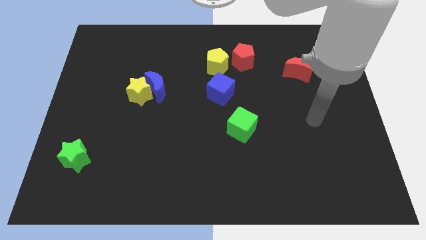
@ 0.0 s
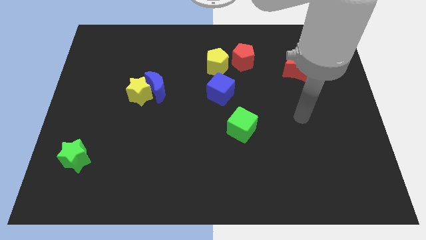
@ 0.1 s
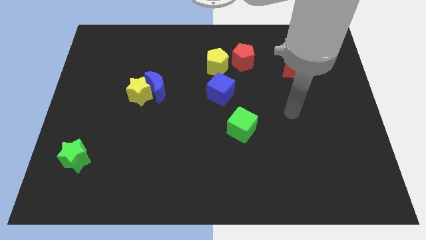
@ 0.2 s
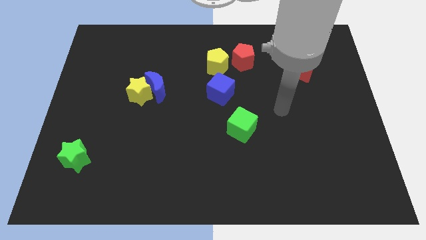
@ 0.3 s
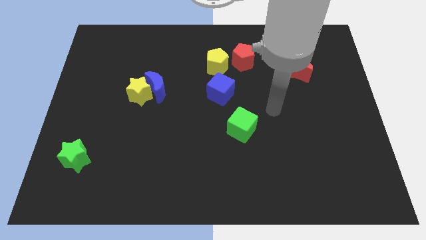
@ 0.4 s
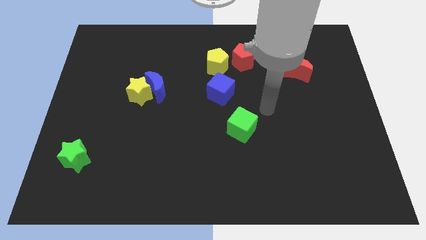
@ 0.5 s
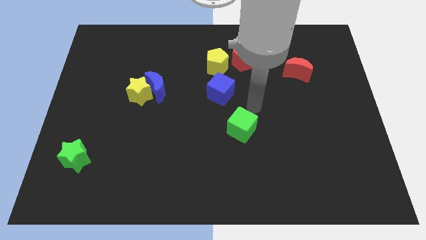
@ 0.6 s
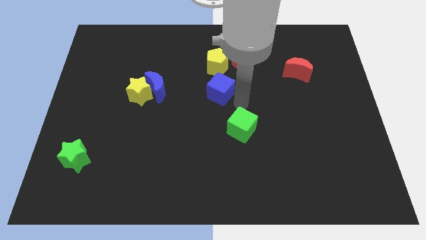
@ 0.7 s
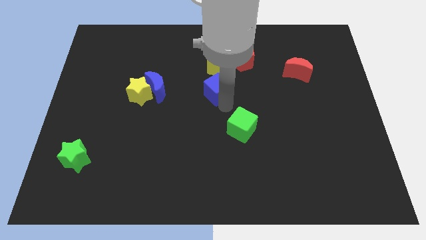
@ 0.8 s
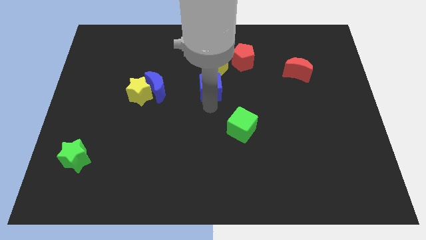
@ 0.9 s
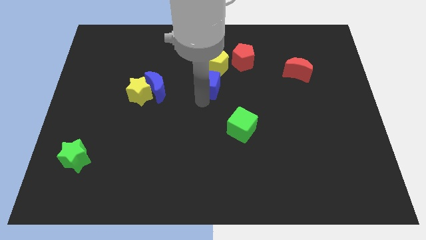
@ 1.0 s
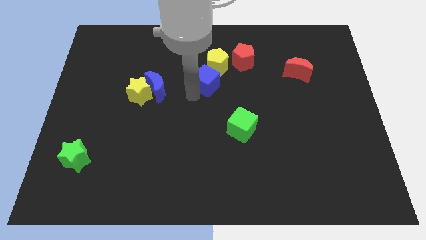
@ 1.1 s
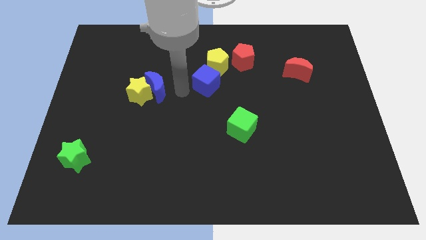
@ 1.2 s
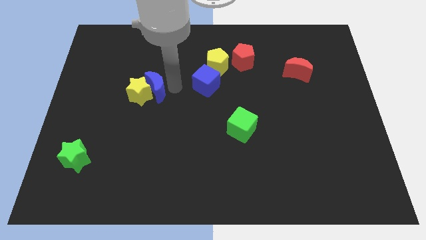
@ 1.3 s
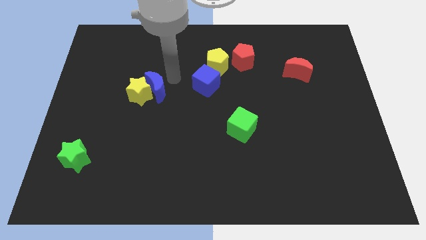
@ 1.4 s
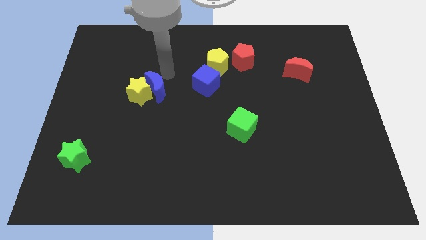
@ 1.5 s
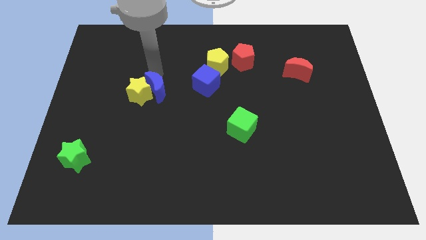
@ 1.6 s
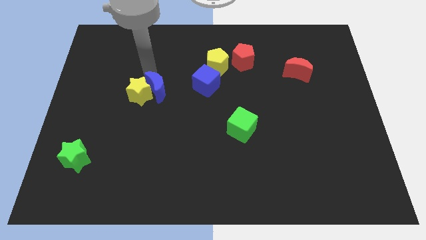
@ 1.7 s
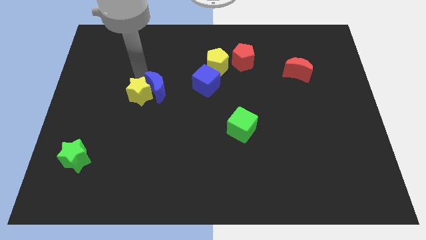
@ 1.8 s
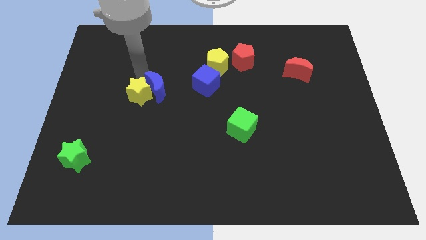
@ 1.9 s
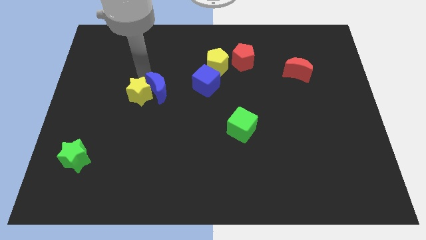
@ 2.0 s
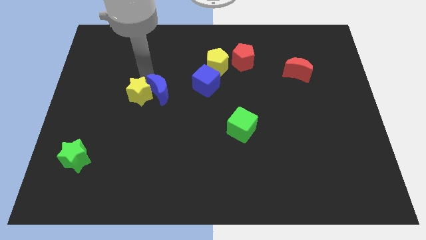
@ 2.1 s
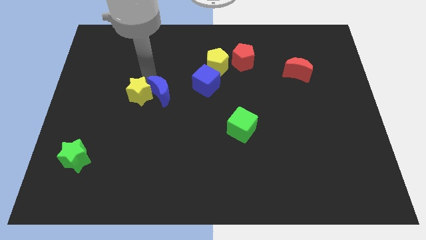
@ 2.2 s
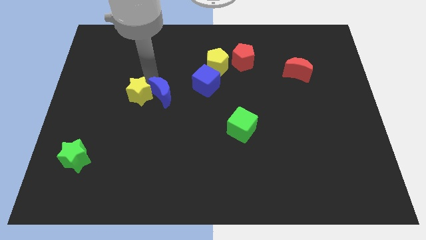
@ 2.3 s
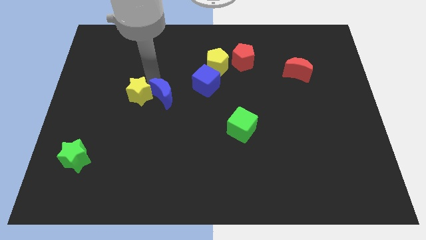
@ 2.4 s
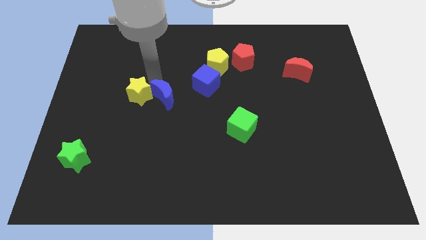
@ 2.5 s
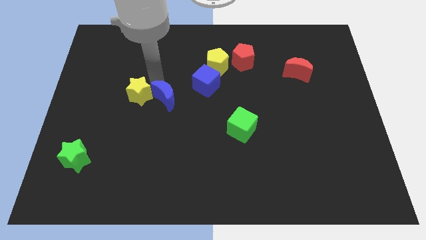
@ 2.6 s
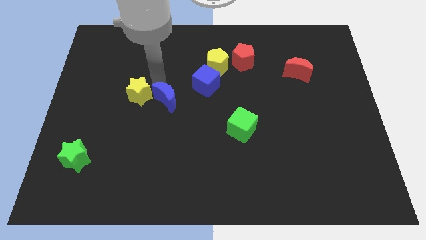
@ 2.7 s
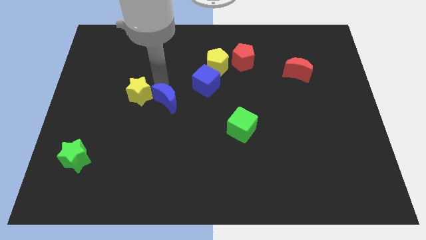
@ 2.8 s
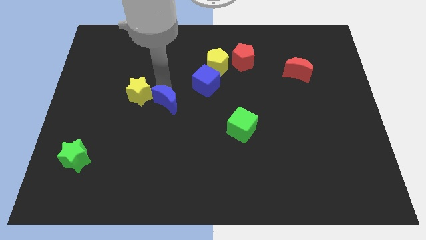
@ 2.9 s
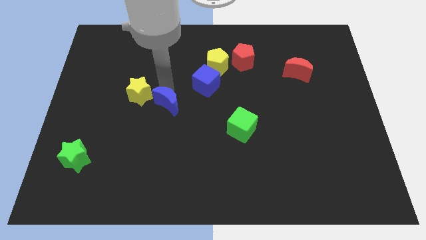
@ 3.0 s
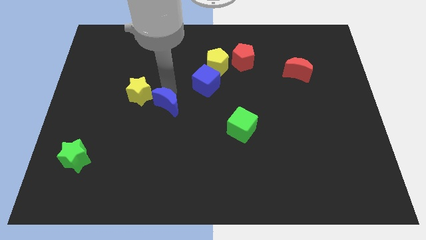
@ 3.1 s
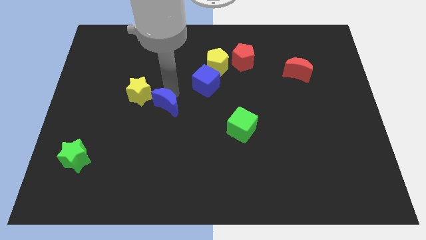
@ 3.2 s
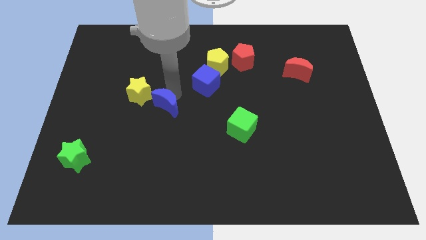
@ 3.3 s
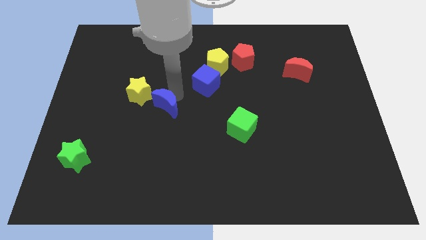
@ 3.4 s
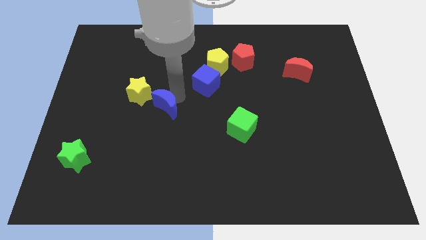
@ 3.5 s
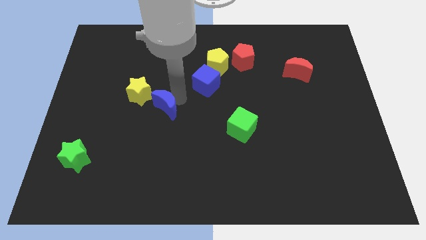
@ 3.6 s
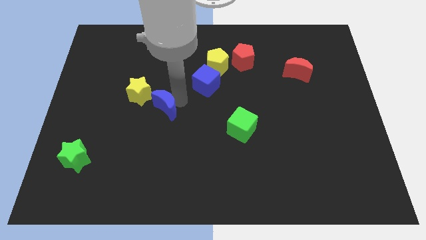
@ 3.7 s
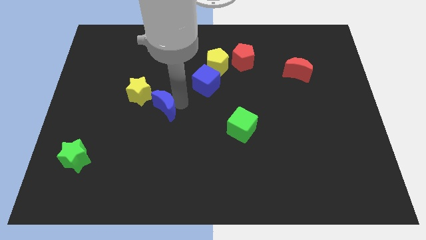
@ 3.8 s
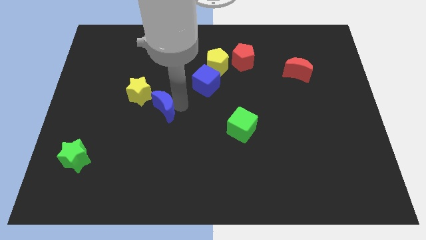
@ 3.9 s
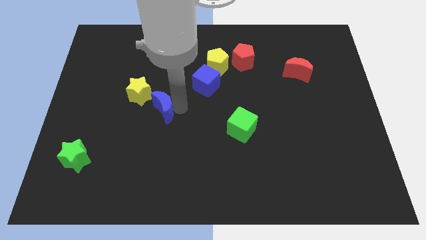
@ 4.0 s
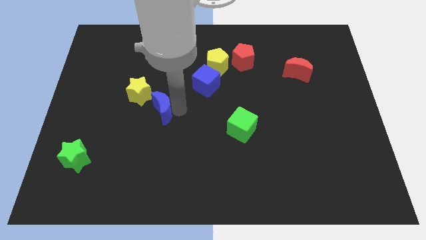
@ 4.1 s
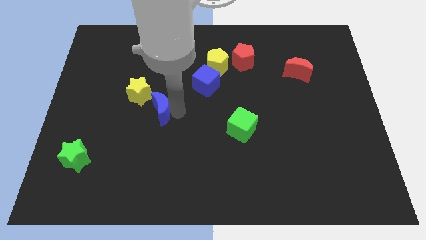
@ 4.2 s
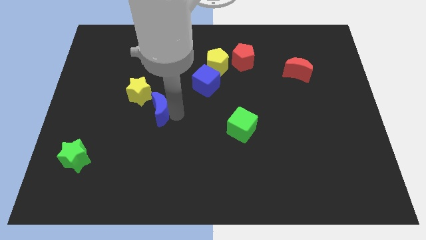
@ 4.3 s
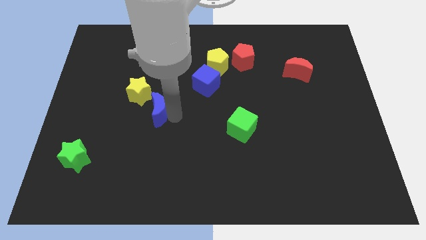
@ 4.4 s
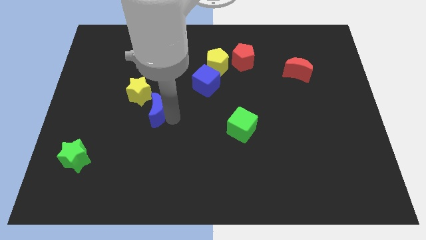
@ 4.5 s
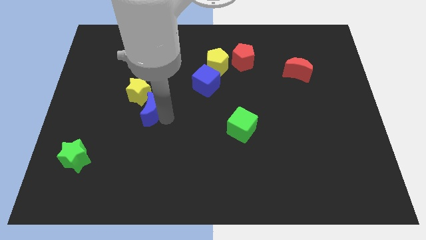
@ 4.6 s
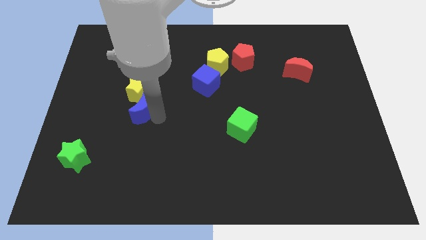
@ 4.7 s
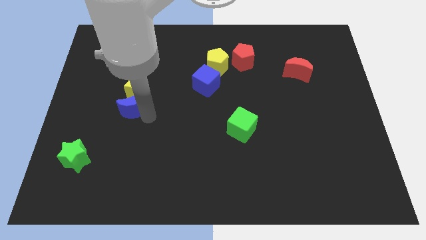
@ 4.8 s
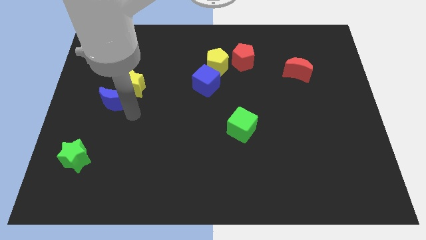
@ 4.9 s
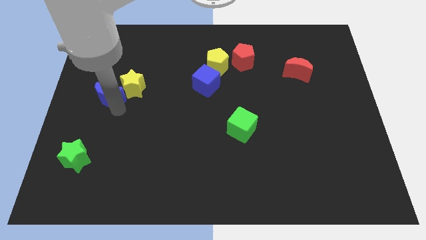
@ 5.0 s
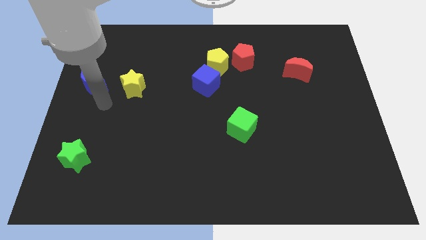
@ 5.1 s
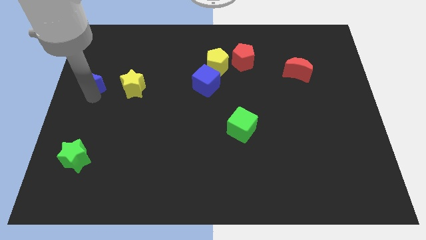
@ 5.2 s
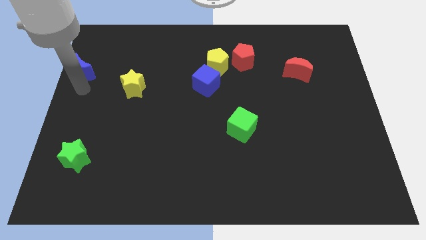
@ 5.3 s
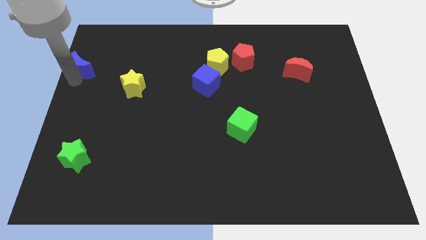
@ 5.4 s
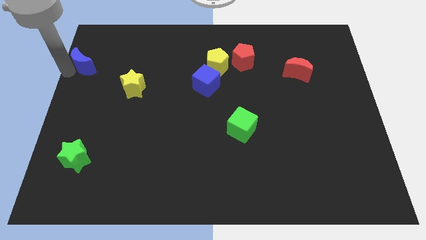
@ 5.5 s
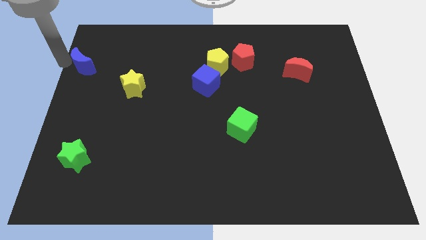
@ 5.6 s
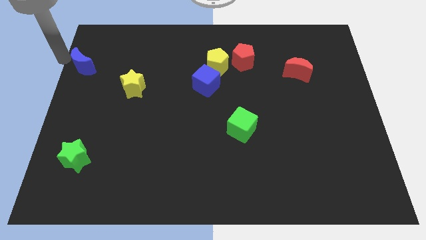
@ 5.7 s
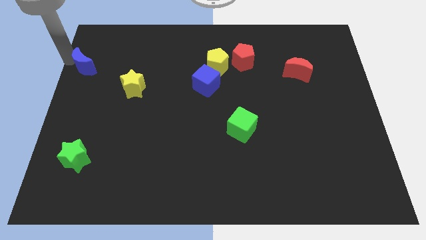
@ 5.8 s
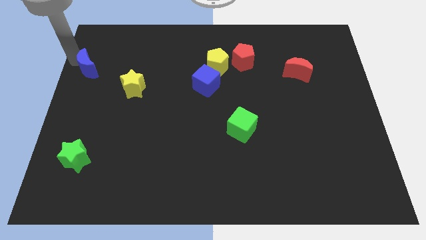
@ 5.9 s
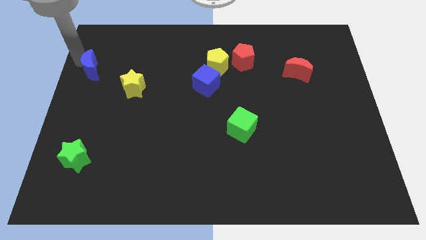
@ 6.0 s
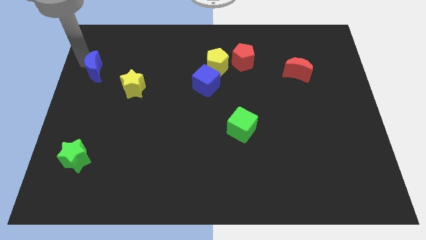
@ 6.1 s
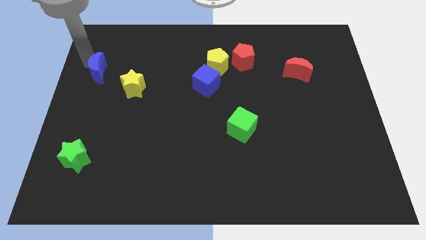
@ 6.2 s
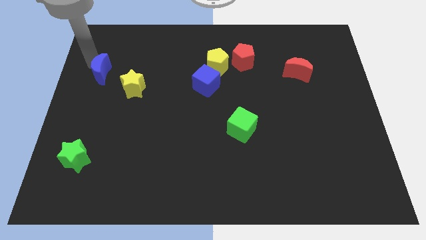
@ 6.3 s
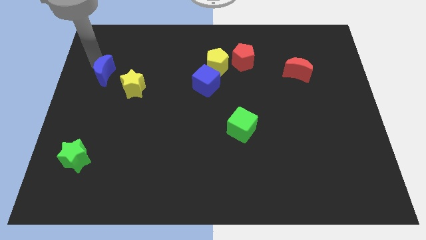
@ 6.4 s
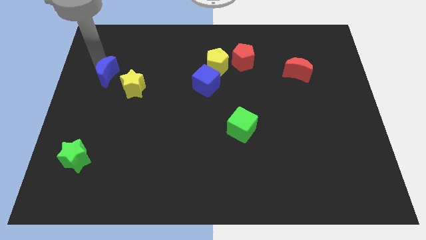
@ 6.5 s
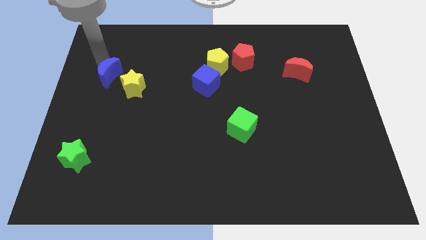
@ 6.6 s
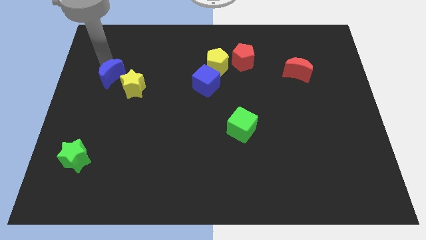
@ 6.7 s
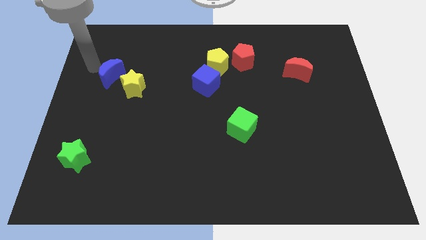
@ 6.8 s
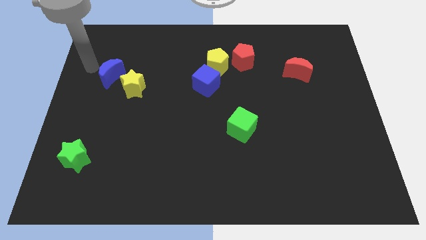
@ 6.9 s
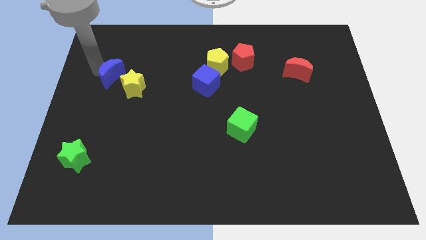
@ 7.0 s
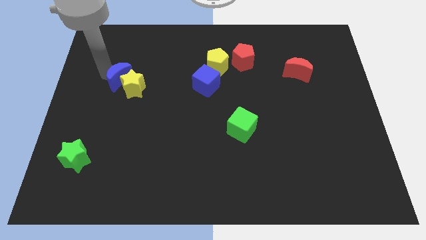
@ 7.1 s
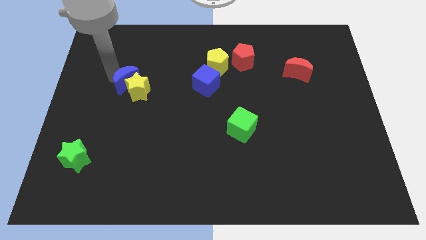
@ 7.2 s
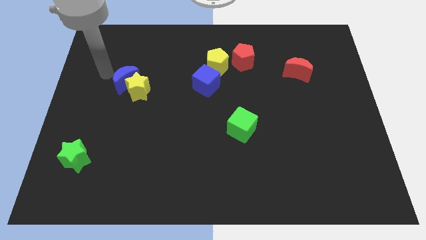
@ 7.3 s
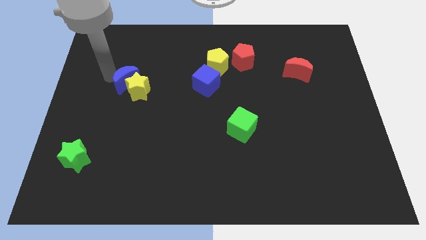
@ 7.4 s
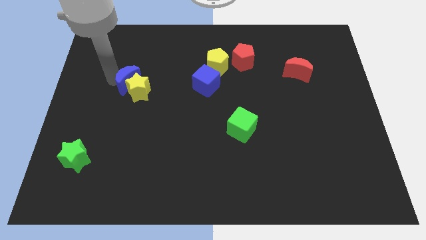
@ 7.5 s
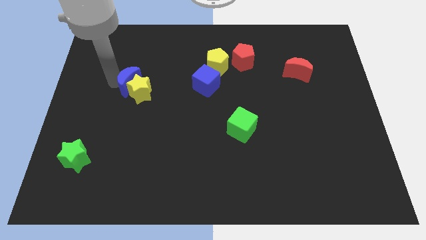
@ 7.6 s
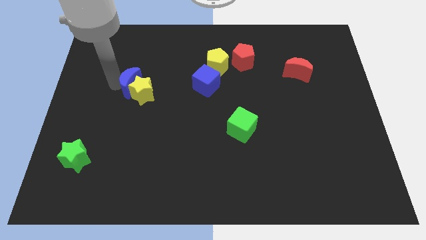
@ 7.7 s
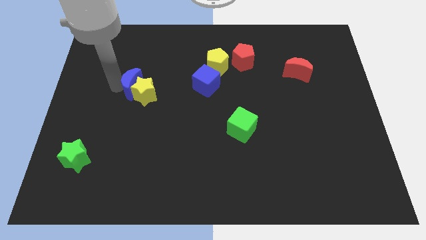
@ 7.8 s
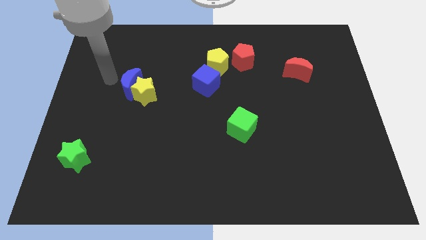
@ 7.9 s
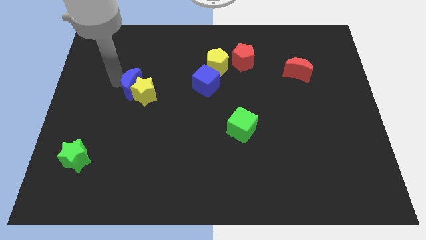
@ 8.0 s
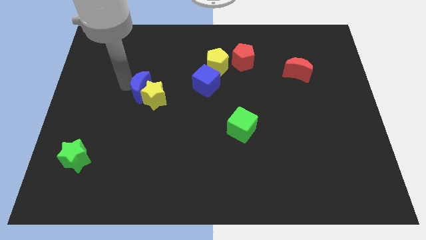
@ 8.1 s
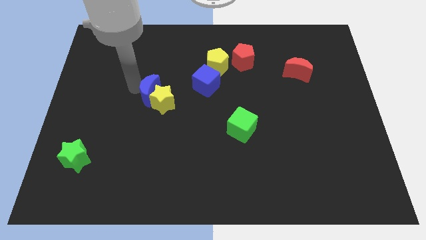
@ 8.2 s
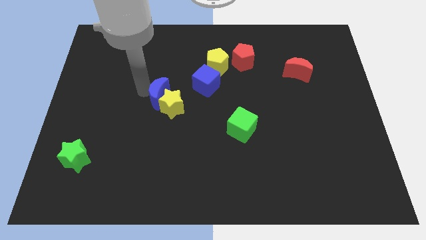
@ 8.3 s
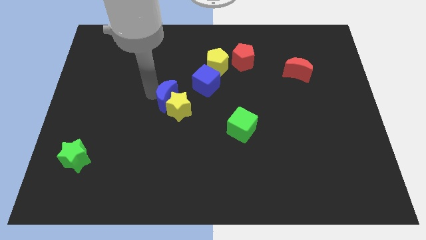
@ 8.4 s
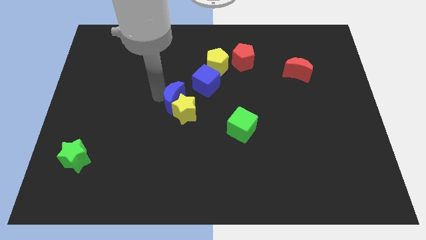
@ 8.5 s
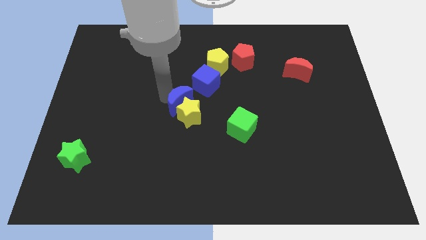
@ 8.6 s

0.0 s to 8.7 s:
push the blue moon diagonally downwards and to the right a little
